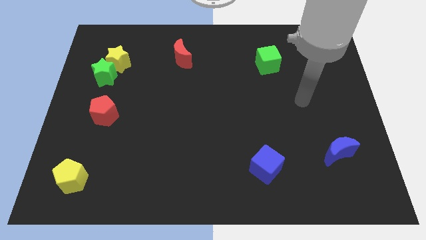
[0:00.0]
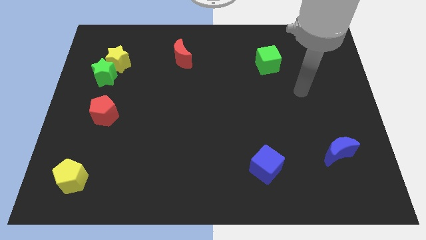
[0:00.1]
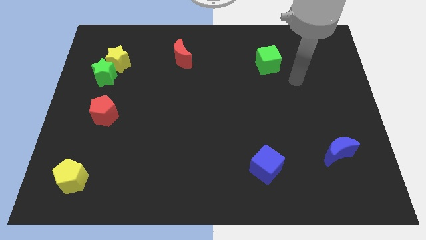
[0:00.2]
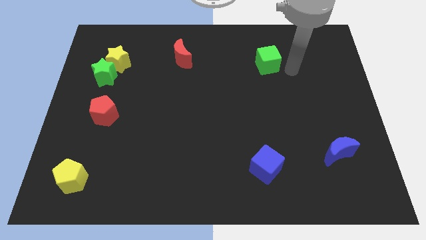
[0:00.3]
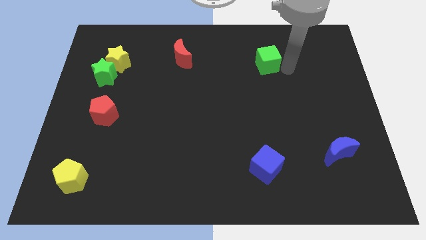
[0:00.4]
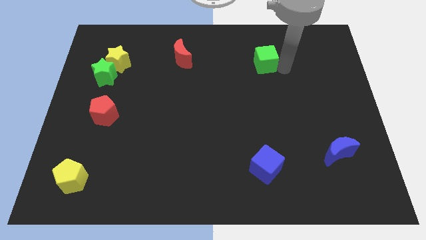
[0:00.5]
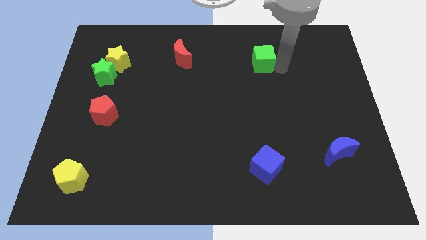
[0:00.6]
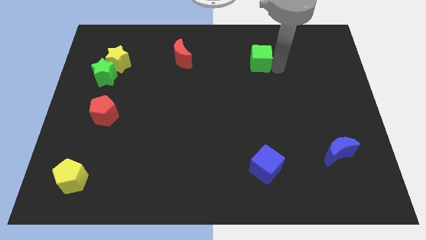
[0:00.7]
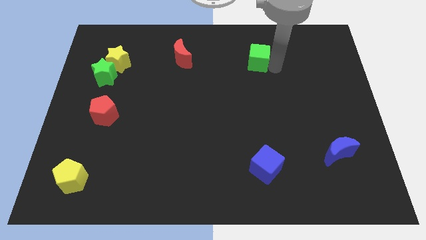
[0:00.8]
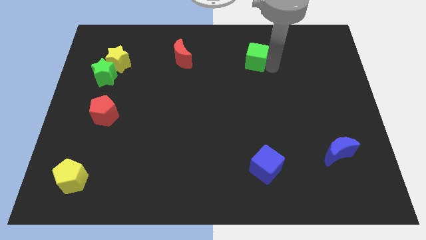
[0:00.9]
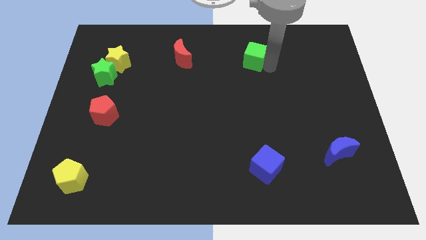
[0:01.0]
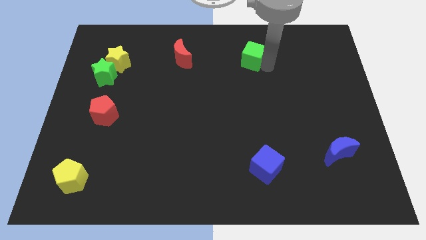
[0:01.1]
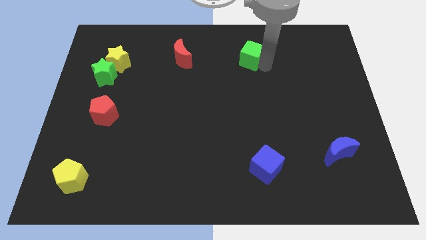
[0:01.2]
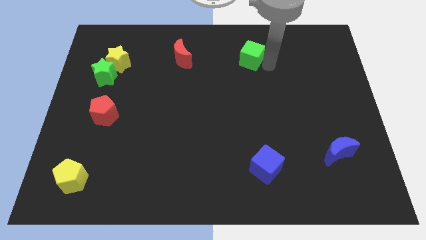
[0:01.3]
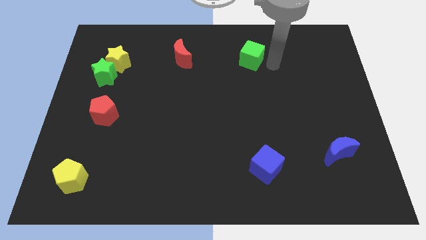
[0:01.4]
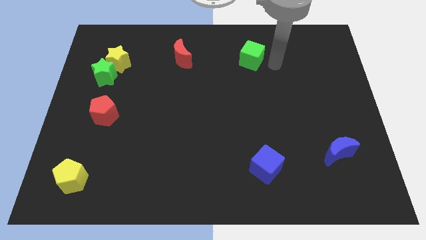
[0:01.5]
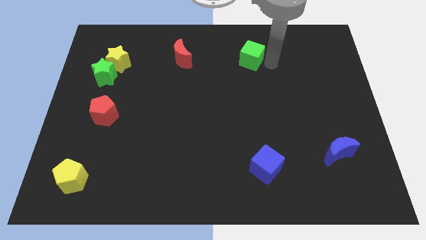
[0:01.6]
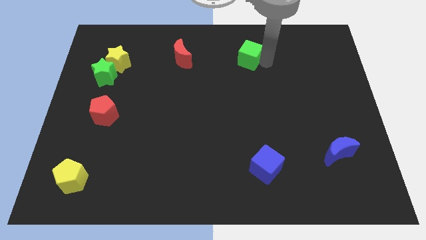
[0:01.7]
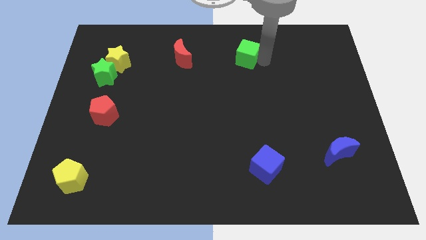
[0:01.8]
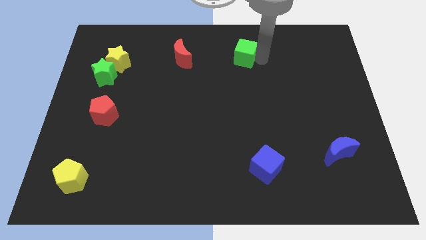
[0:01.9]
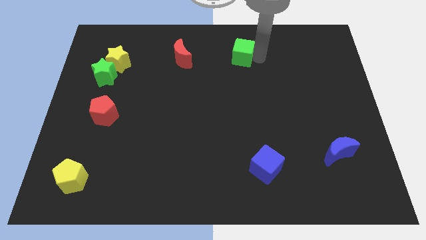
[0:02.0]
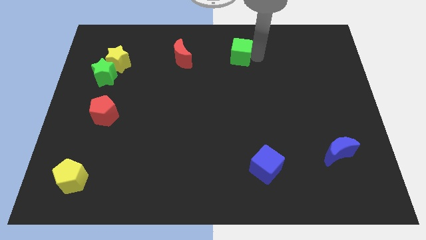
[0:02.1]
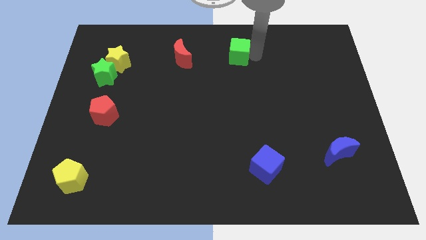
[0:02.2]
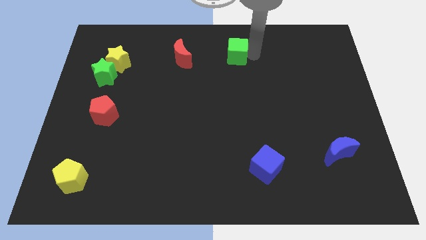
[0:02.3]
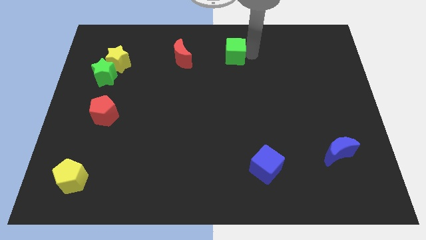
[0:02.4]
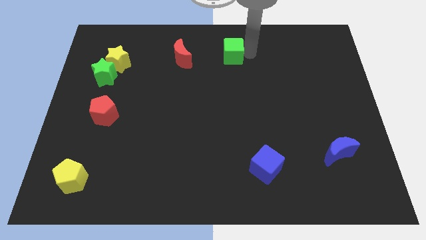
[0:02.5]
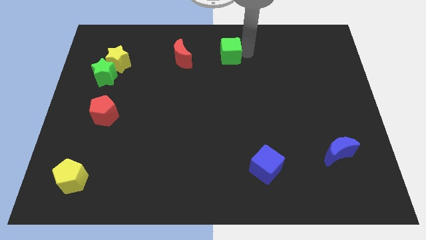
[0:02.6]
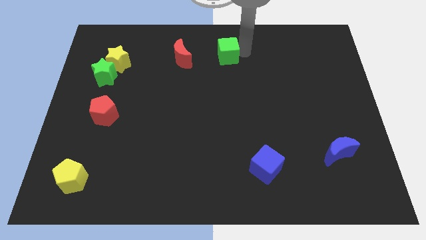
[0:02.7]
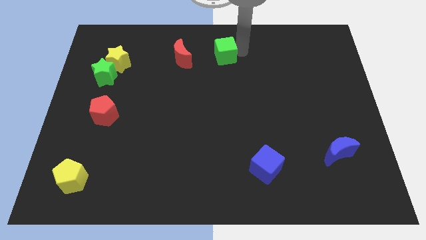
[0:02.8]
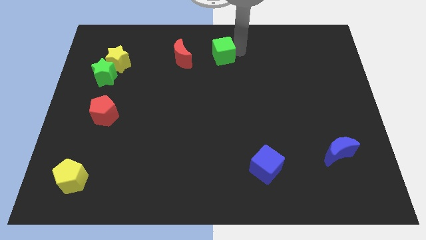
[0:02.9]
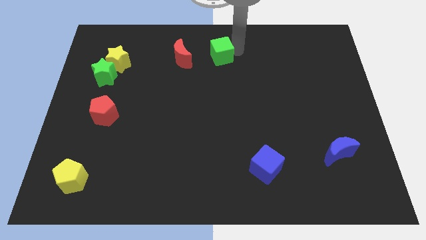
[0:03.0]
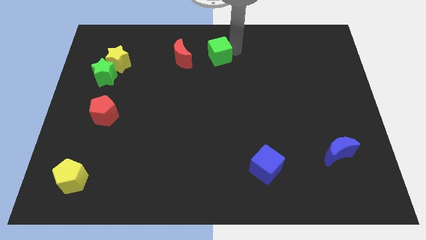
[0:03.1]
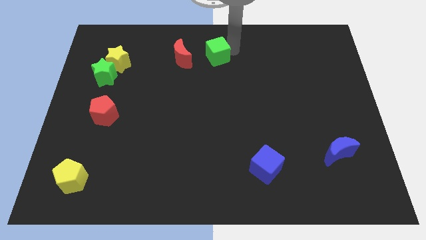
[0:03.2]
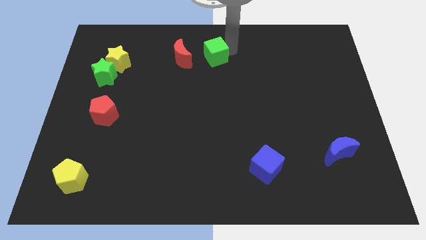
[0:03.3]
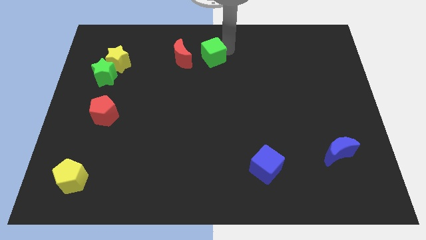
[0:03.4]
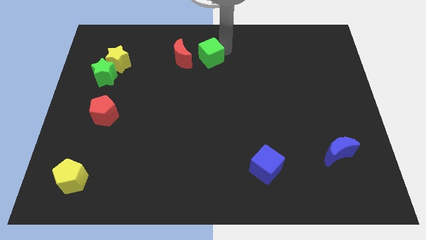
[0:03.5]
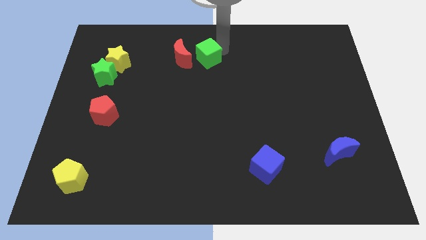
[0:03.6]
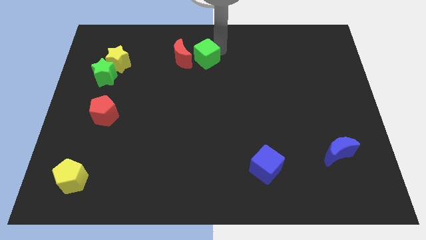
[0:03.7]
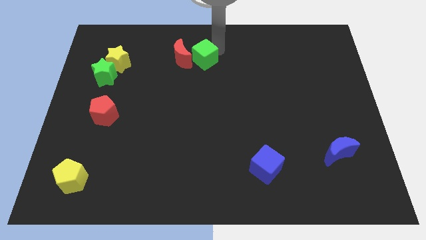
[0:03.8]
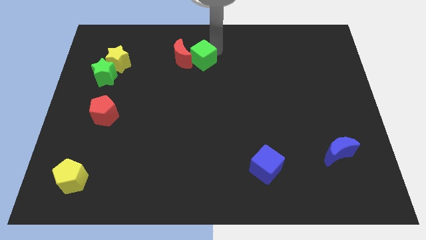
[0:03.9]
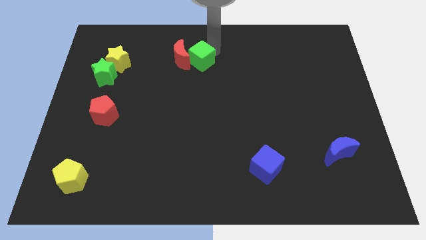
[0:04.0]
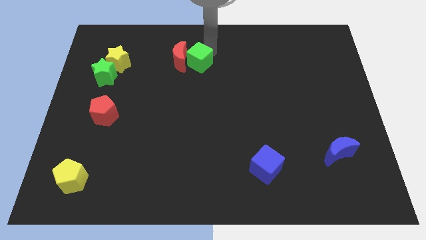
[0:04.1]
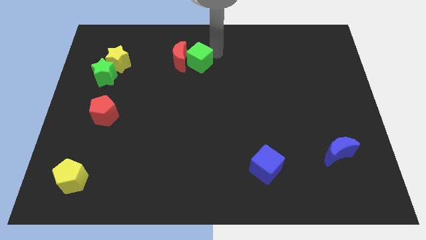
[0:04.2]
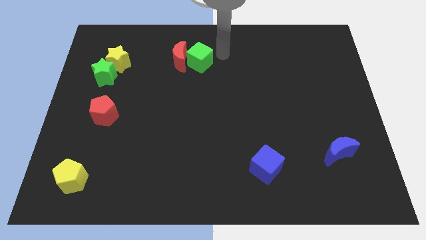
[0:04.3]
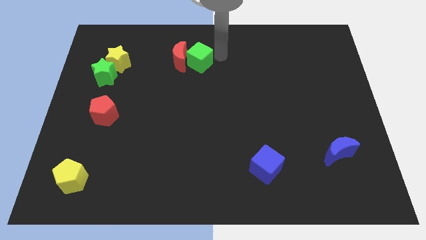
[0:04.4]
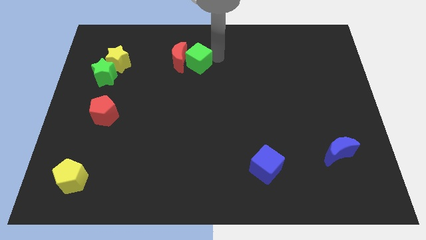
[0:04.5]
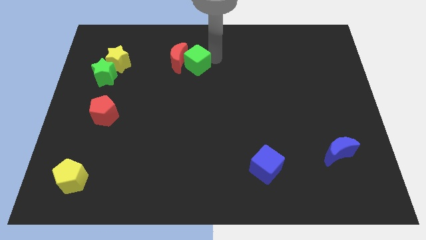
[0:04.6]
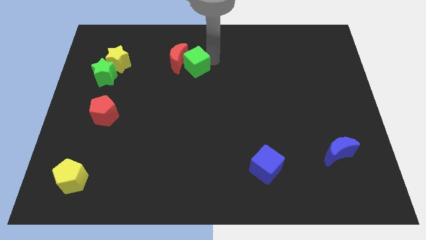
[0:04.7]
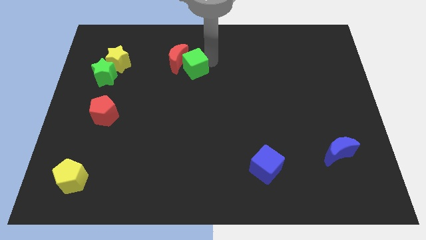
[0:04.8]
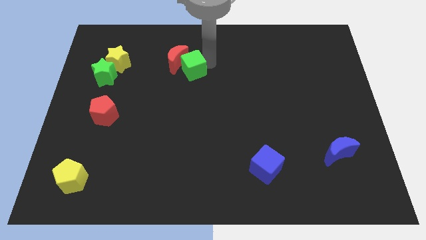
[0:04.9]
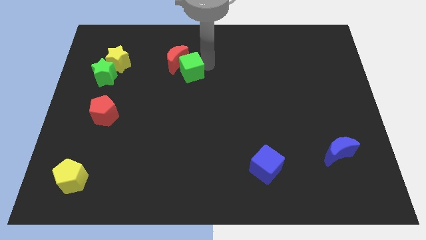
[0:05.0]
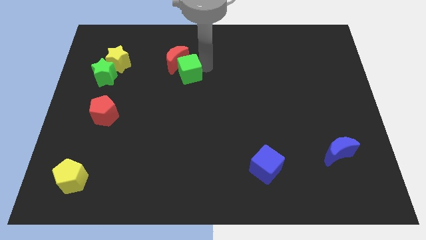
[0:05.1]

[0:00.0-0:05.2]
push the green cube left

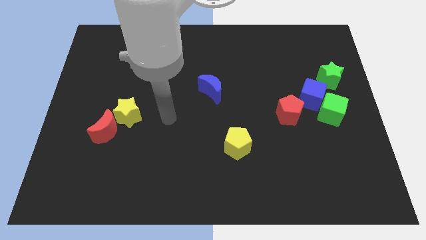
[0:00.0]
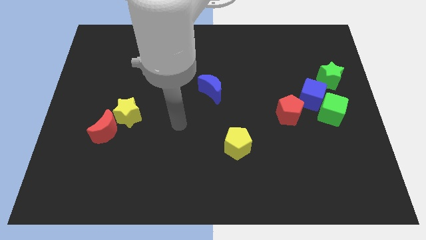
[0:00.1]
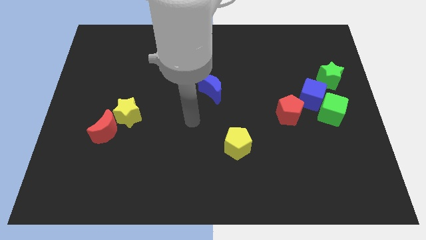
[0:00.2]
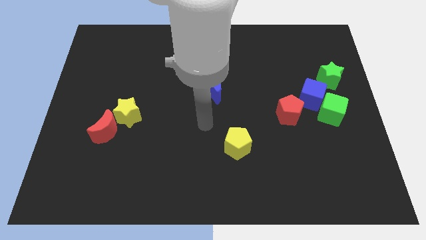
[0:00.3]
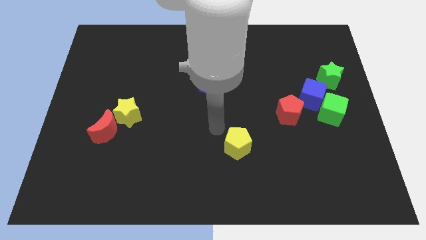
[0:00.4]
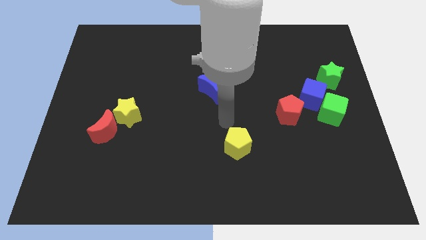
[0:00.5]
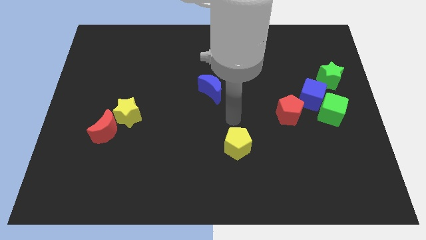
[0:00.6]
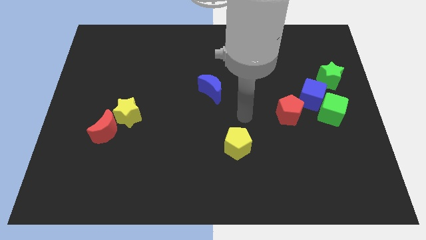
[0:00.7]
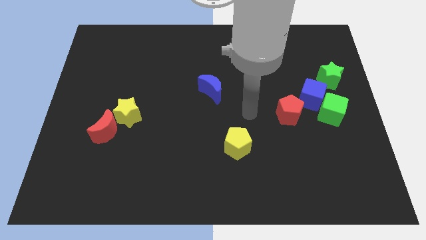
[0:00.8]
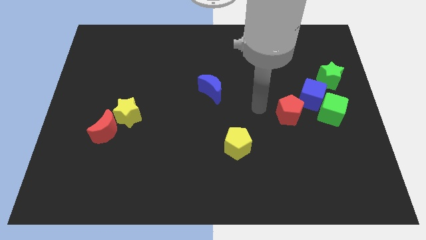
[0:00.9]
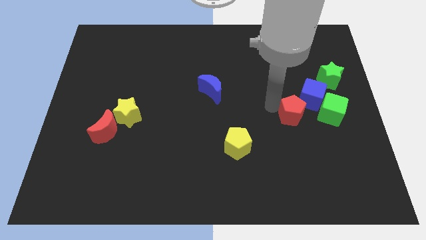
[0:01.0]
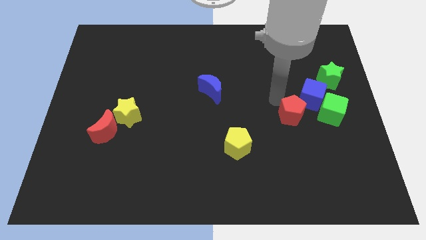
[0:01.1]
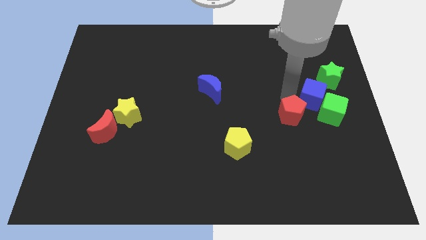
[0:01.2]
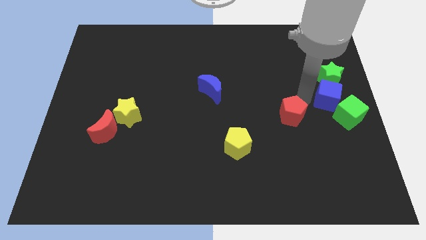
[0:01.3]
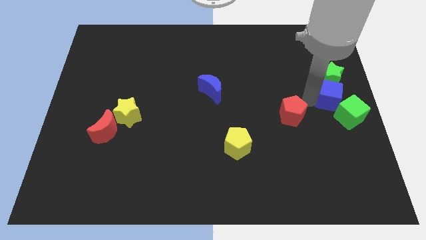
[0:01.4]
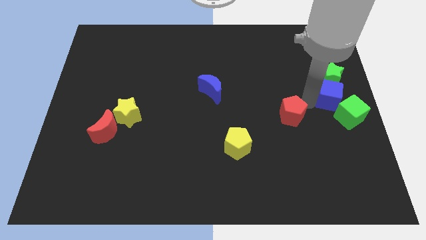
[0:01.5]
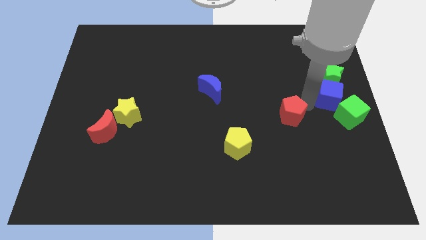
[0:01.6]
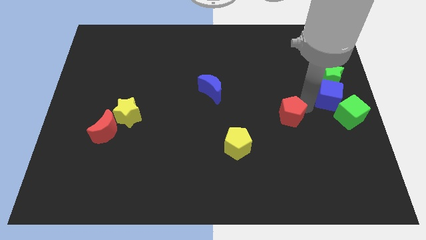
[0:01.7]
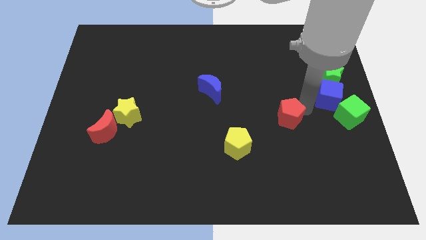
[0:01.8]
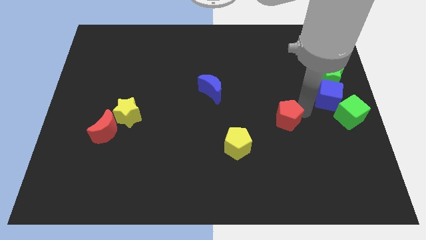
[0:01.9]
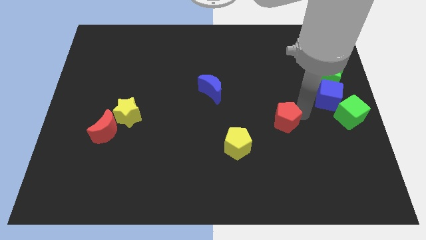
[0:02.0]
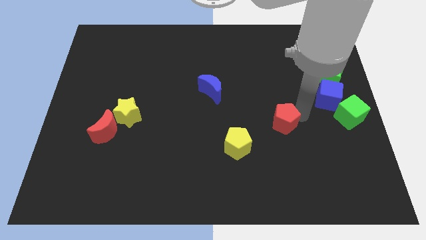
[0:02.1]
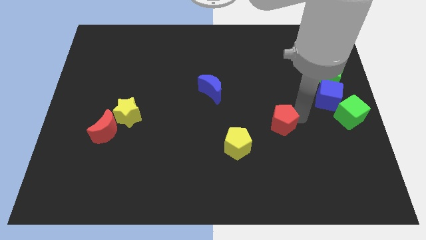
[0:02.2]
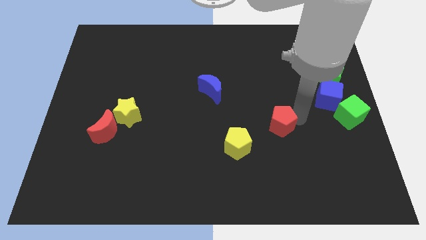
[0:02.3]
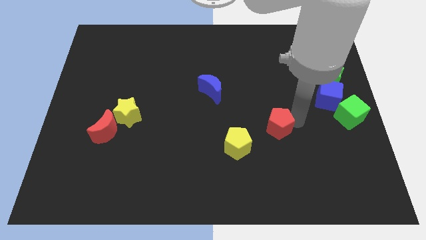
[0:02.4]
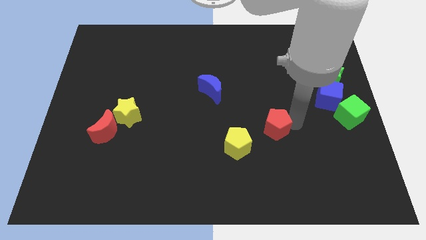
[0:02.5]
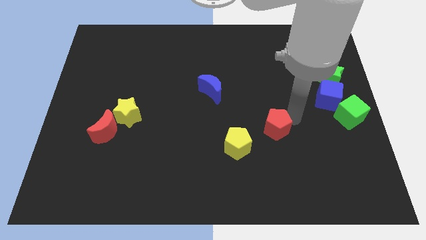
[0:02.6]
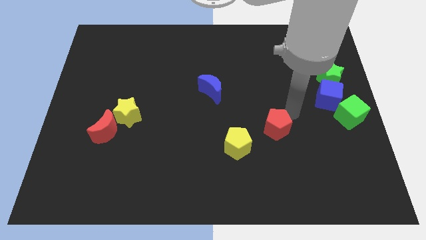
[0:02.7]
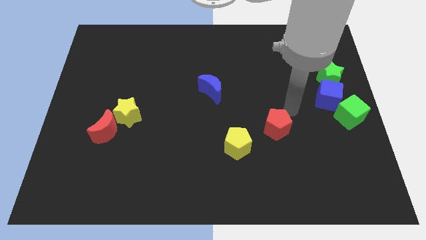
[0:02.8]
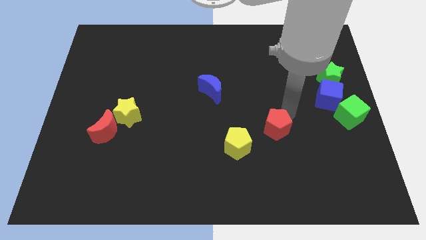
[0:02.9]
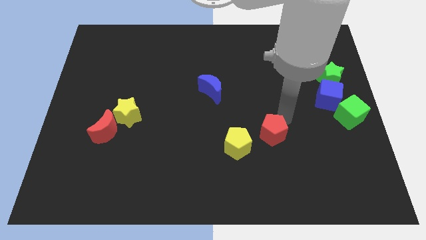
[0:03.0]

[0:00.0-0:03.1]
move the red pentagon diagonally downwards and to the left somewhat
